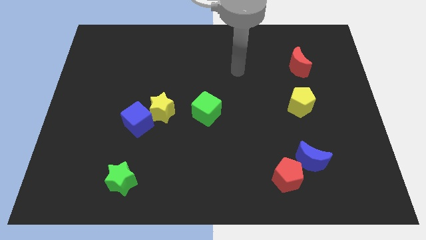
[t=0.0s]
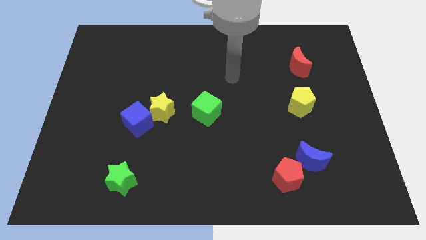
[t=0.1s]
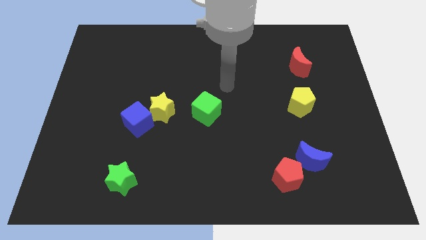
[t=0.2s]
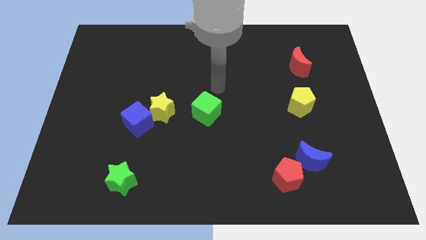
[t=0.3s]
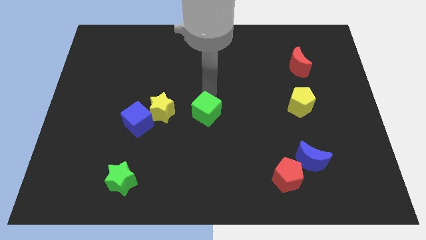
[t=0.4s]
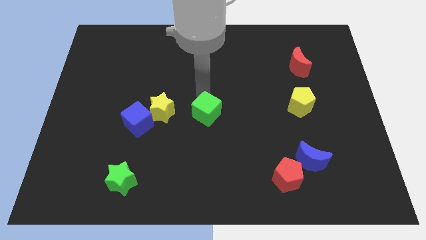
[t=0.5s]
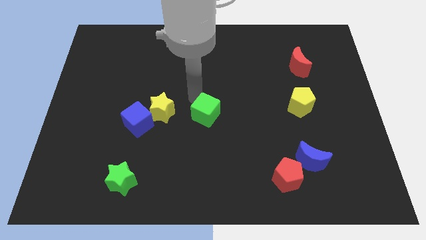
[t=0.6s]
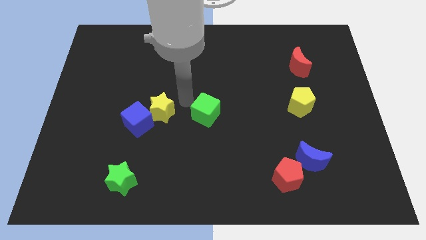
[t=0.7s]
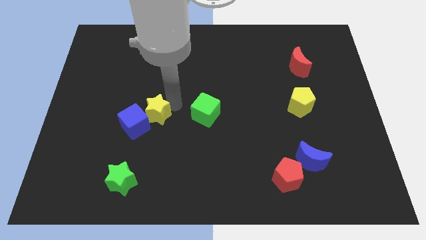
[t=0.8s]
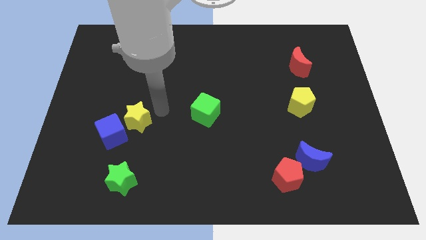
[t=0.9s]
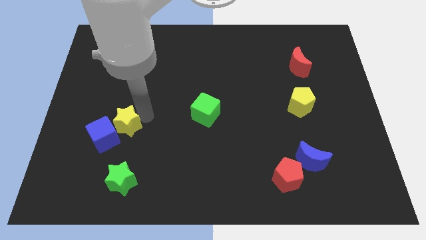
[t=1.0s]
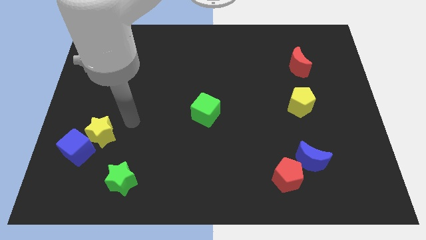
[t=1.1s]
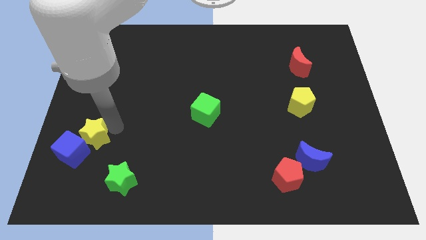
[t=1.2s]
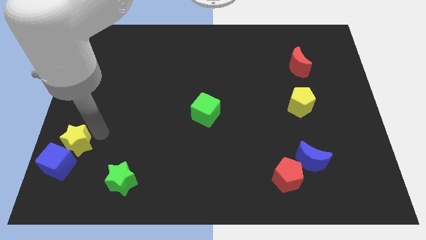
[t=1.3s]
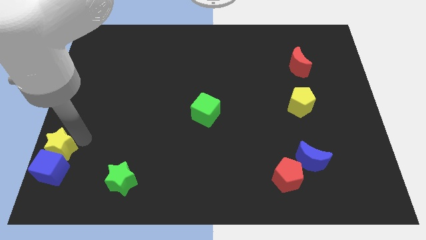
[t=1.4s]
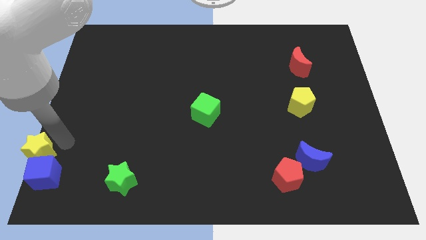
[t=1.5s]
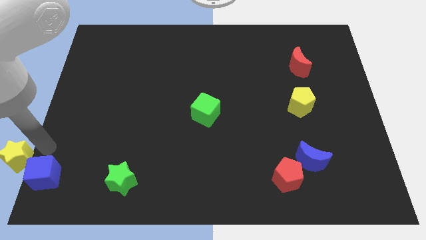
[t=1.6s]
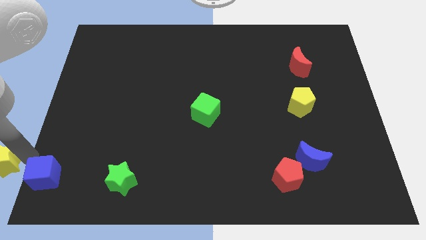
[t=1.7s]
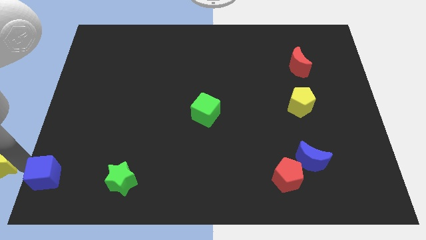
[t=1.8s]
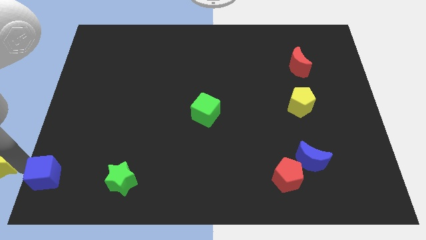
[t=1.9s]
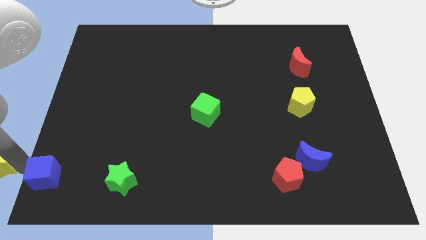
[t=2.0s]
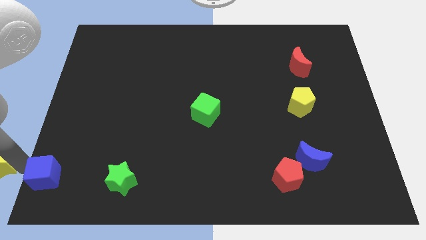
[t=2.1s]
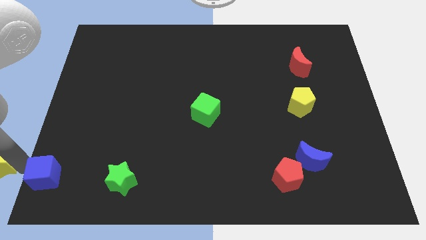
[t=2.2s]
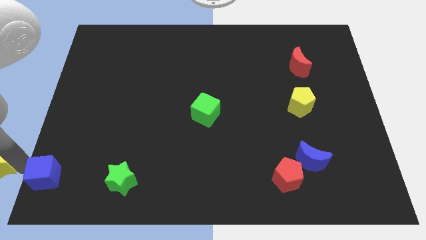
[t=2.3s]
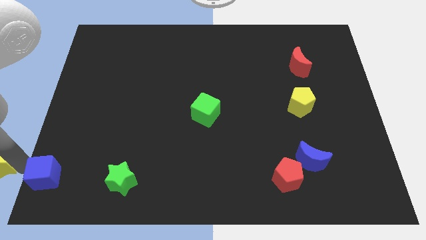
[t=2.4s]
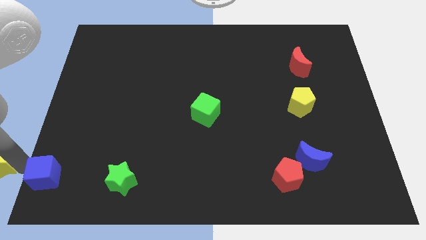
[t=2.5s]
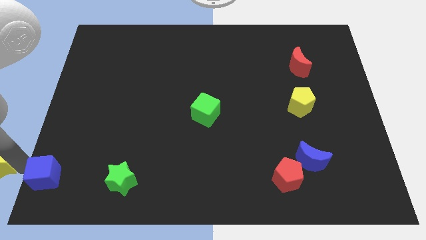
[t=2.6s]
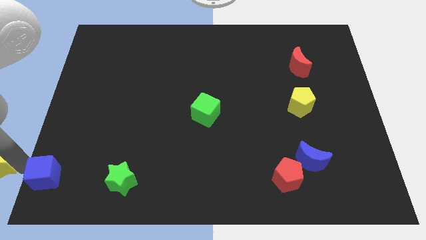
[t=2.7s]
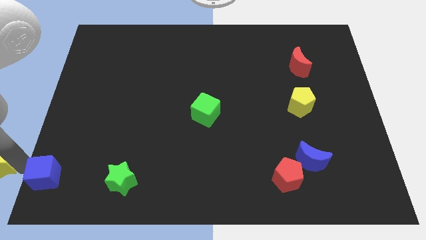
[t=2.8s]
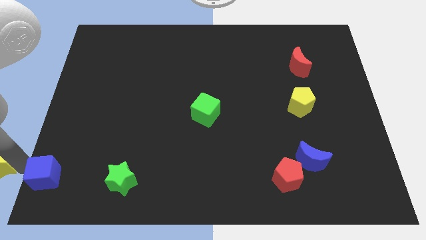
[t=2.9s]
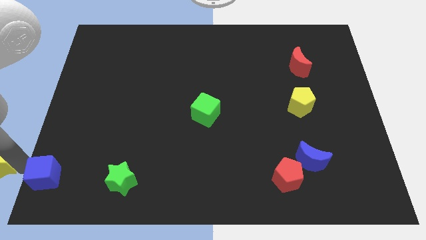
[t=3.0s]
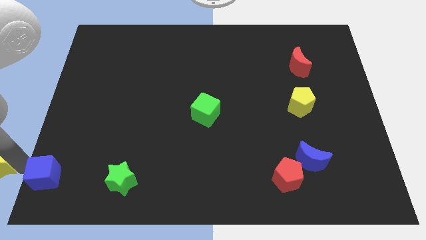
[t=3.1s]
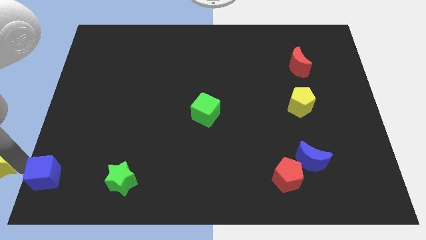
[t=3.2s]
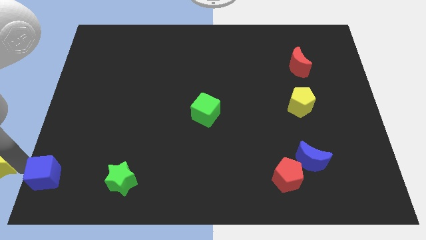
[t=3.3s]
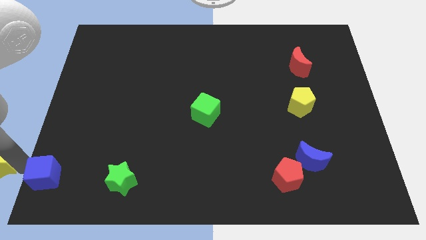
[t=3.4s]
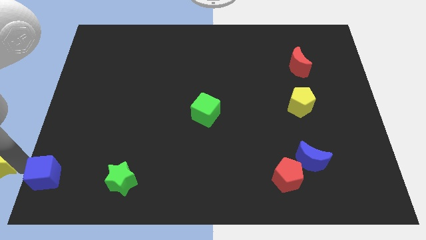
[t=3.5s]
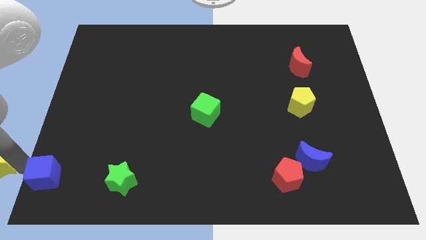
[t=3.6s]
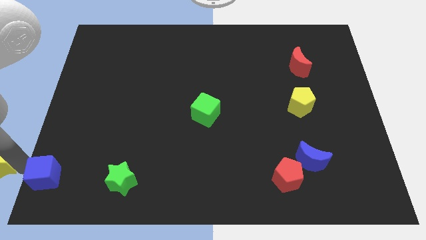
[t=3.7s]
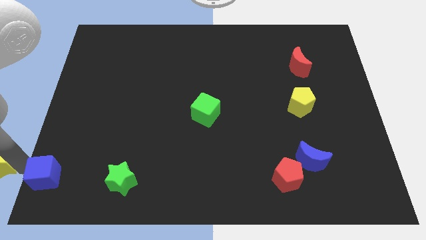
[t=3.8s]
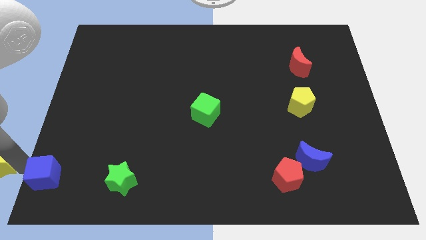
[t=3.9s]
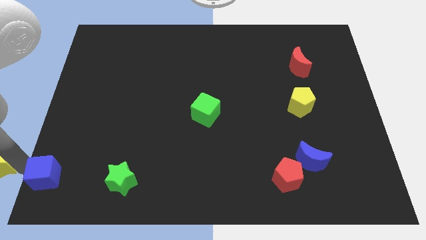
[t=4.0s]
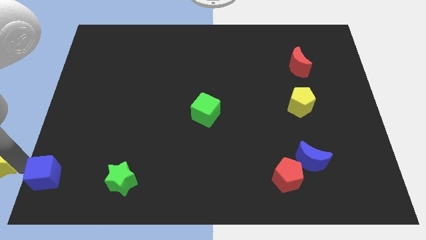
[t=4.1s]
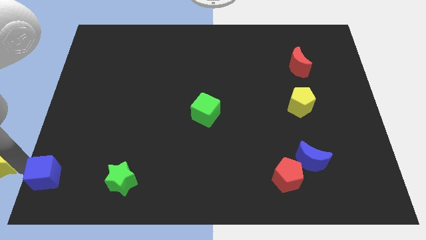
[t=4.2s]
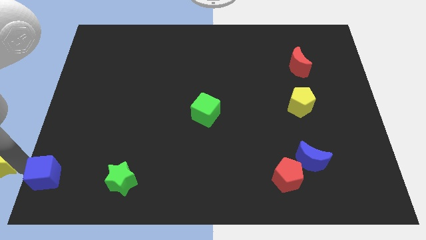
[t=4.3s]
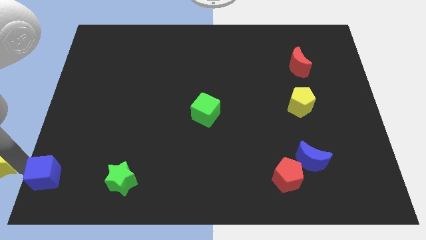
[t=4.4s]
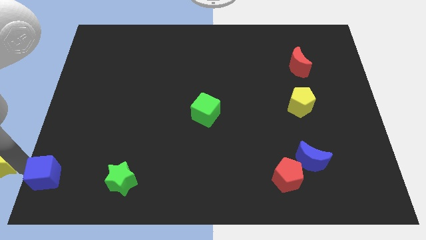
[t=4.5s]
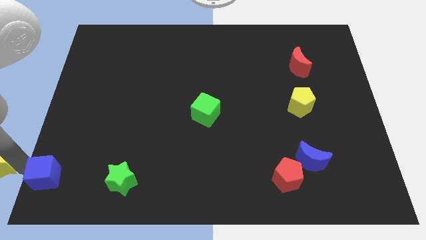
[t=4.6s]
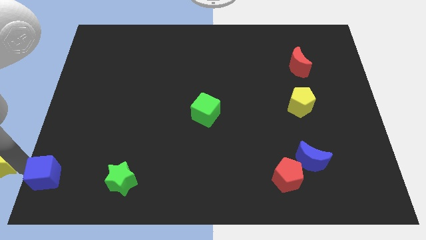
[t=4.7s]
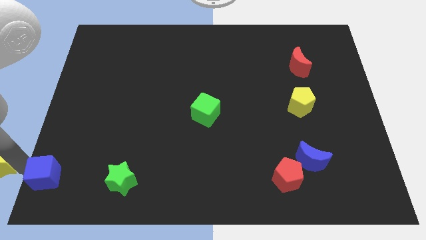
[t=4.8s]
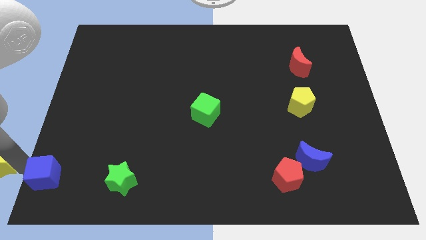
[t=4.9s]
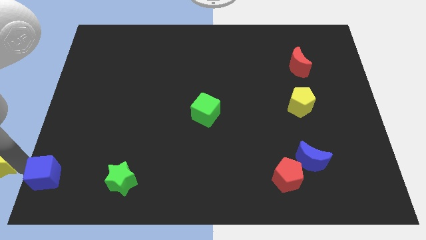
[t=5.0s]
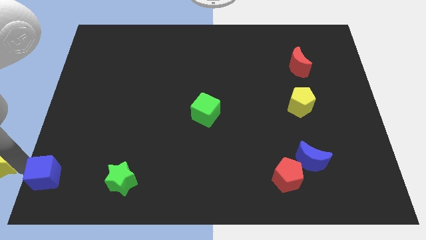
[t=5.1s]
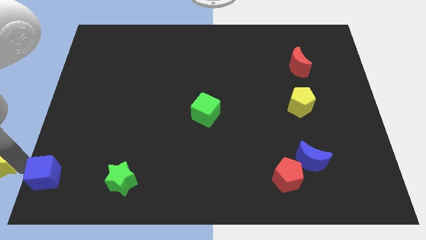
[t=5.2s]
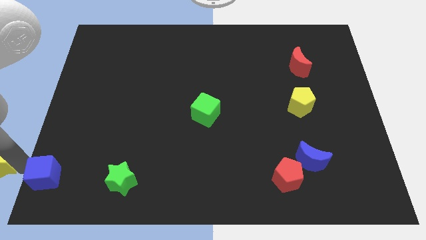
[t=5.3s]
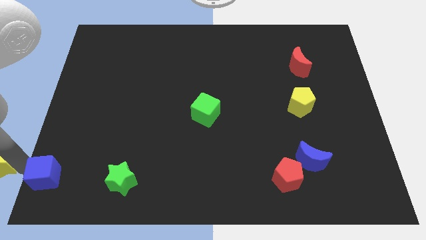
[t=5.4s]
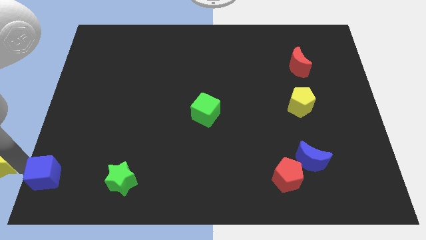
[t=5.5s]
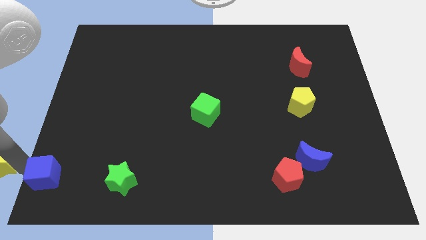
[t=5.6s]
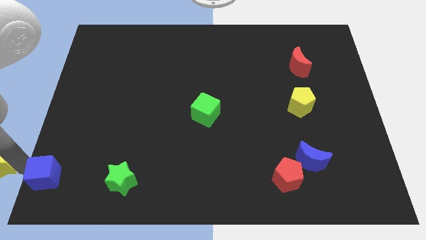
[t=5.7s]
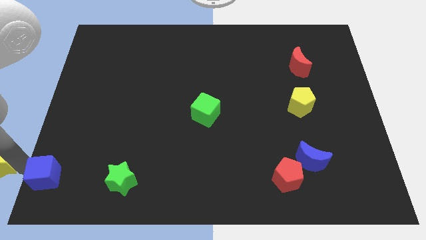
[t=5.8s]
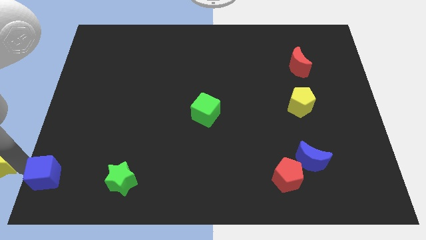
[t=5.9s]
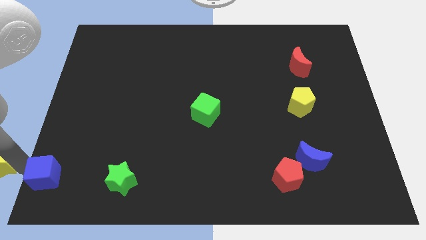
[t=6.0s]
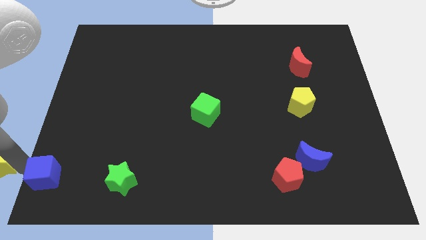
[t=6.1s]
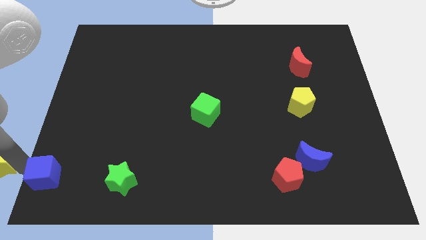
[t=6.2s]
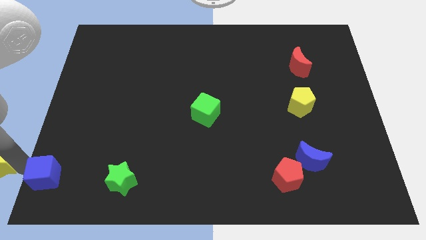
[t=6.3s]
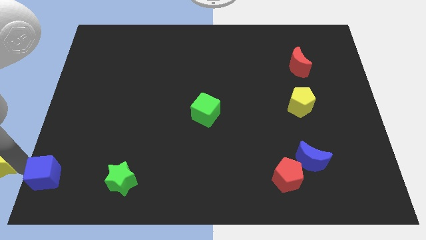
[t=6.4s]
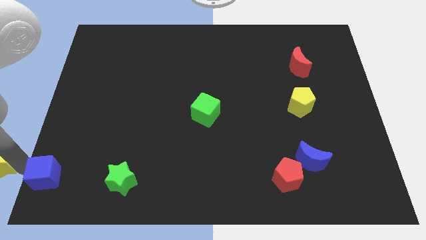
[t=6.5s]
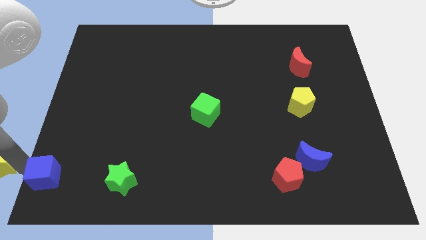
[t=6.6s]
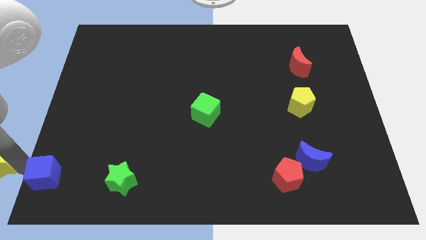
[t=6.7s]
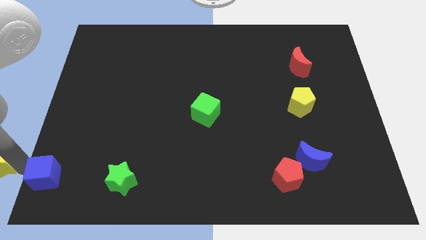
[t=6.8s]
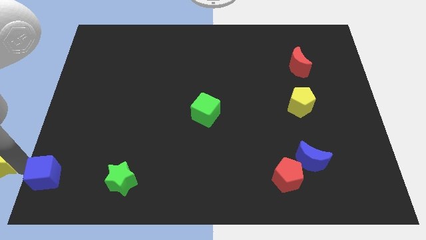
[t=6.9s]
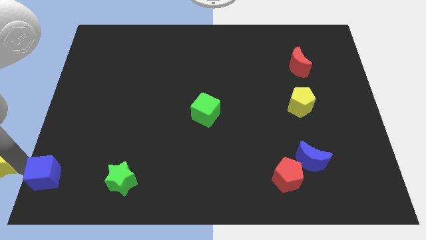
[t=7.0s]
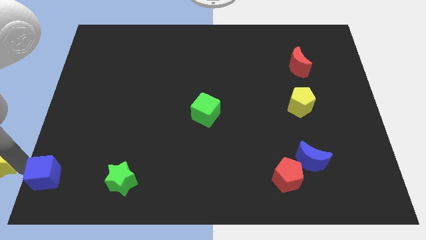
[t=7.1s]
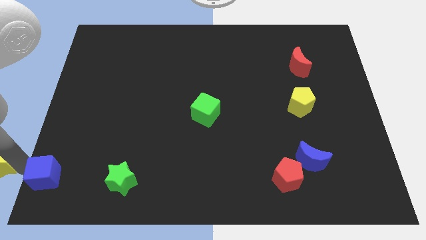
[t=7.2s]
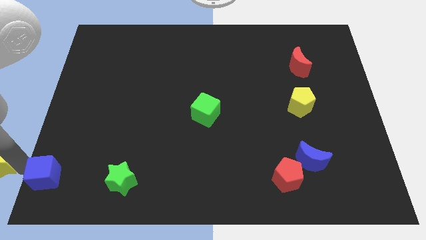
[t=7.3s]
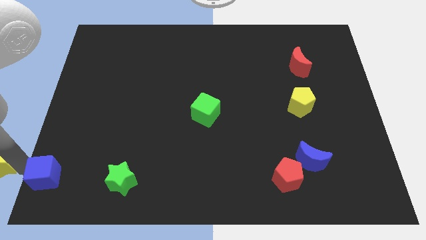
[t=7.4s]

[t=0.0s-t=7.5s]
separate the blue cube from the yellow star

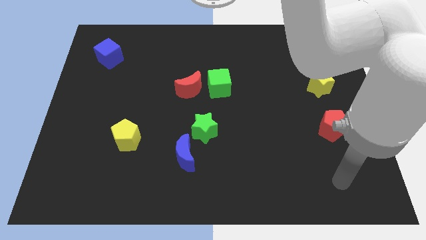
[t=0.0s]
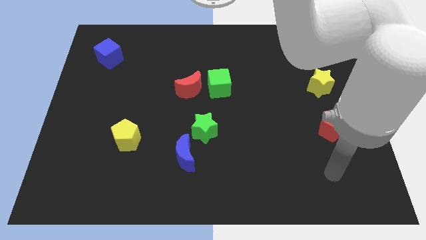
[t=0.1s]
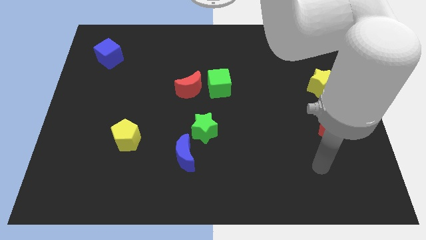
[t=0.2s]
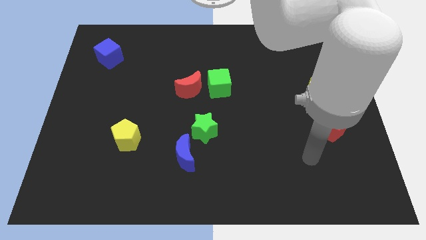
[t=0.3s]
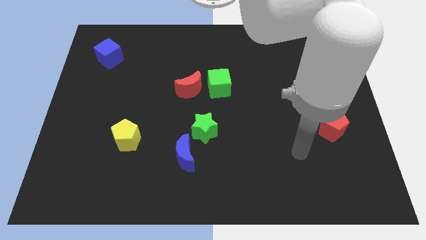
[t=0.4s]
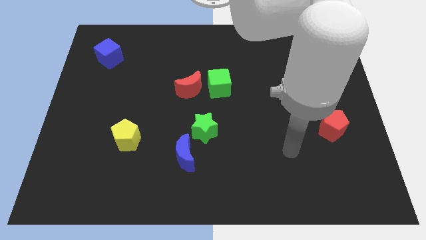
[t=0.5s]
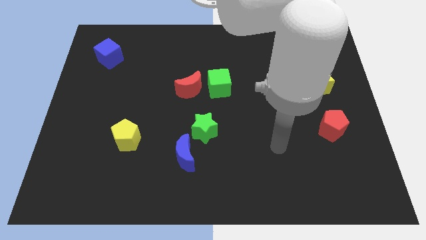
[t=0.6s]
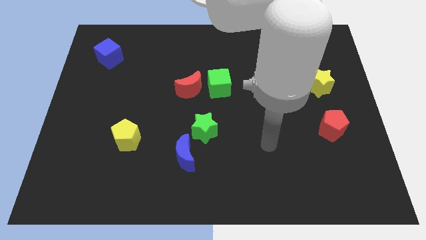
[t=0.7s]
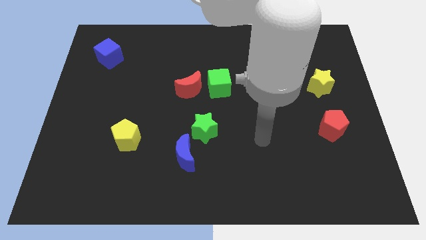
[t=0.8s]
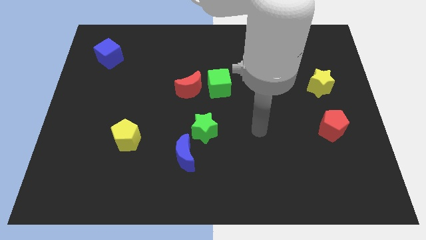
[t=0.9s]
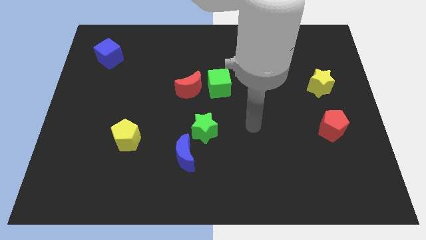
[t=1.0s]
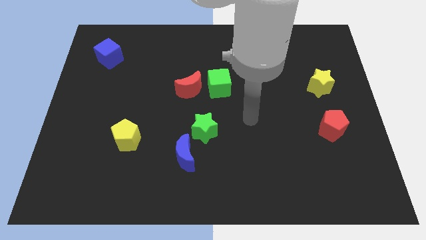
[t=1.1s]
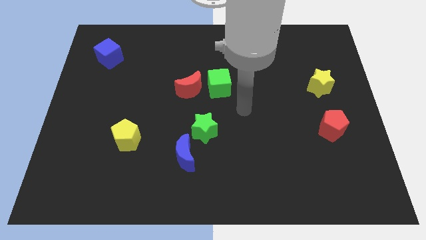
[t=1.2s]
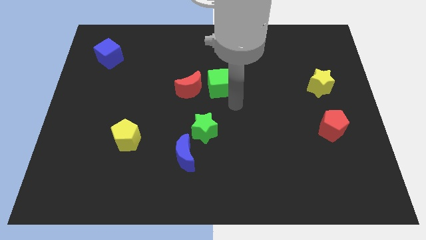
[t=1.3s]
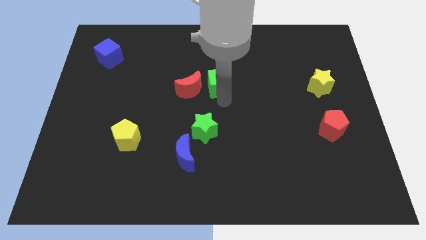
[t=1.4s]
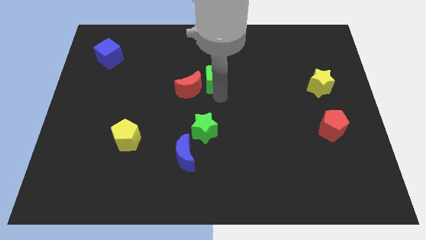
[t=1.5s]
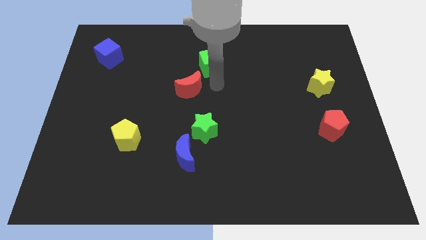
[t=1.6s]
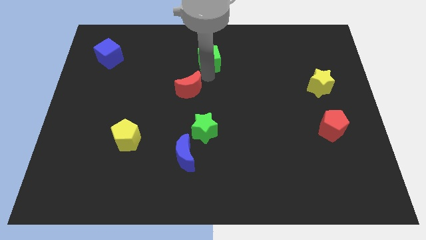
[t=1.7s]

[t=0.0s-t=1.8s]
separate the red moon from the green cube
